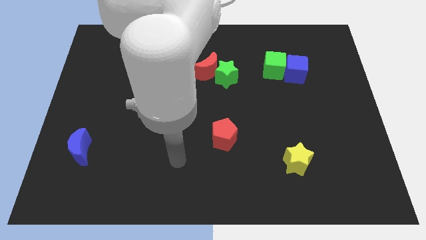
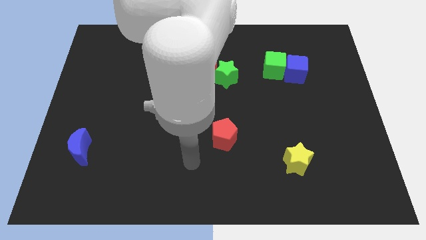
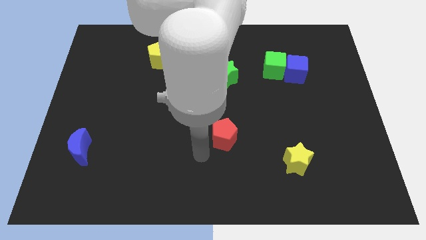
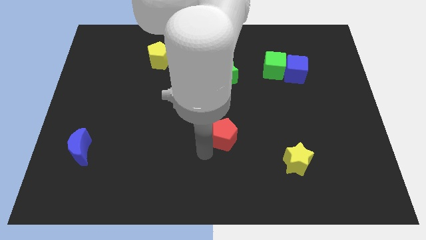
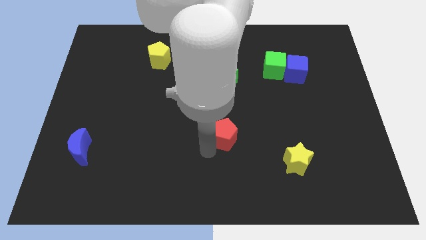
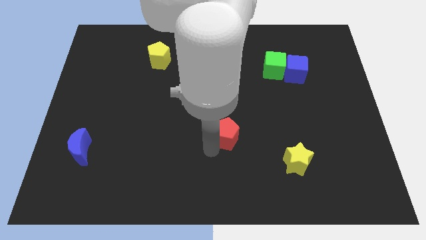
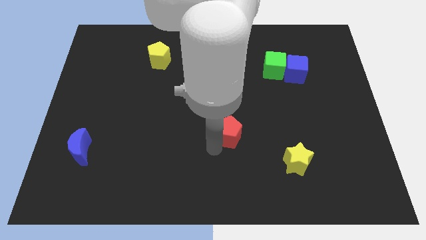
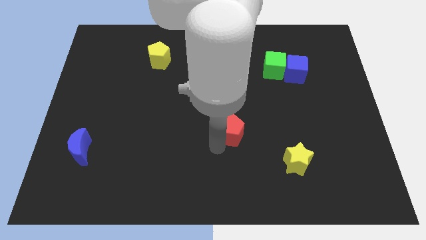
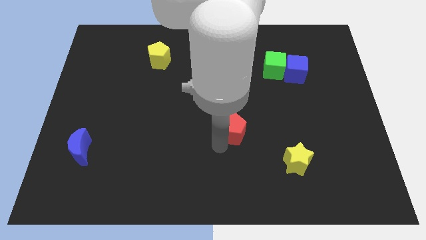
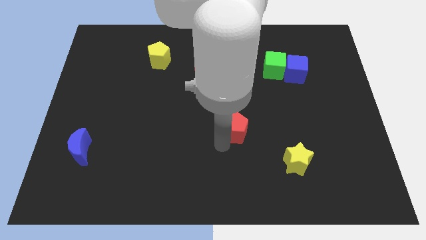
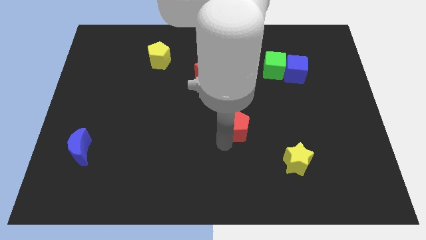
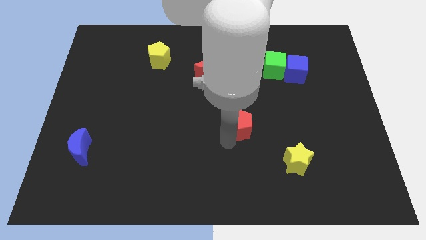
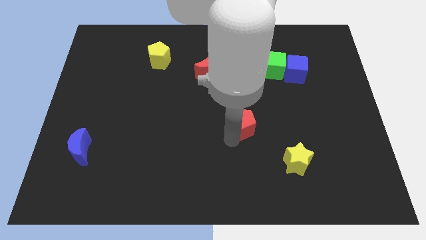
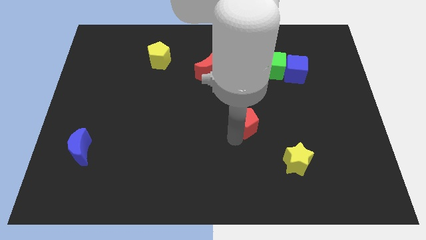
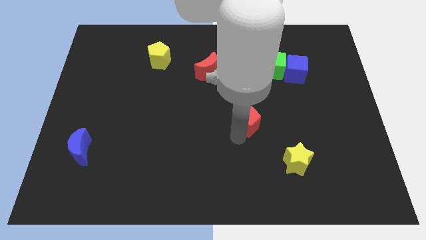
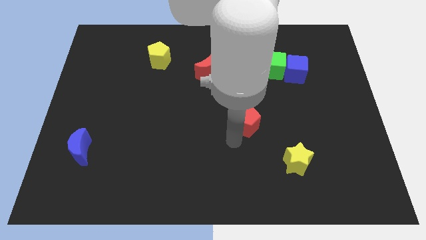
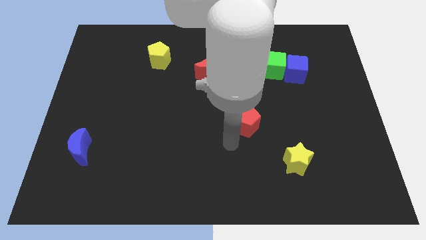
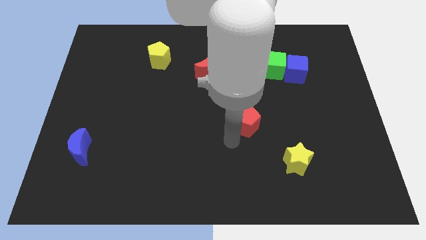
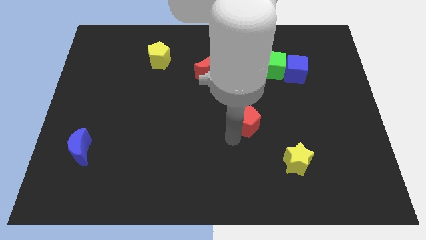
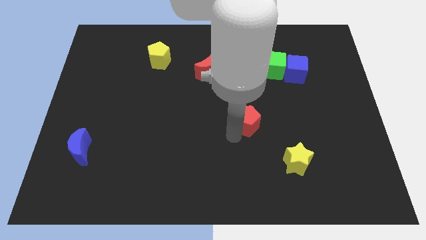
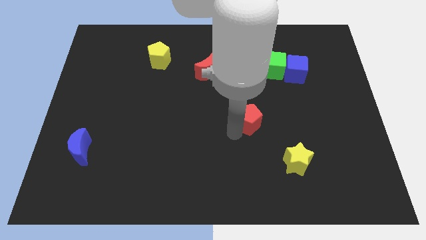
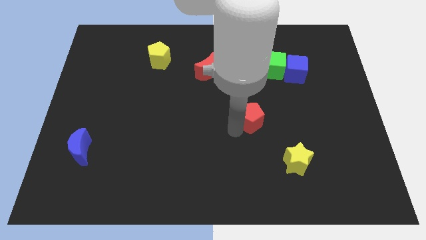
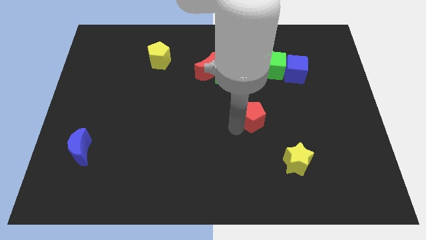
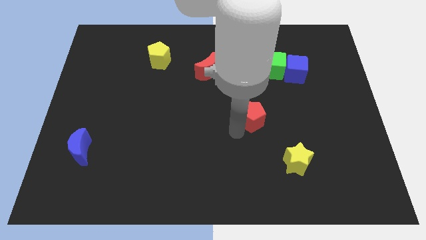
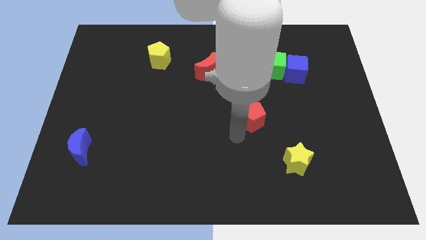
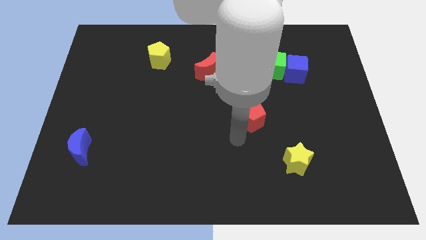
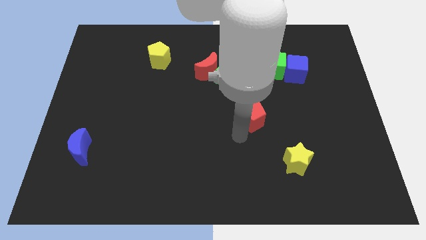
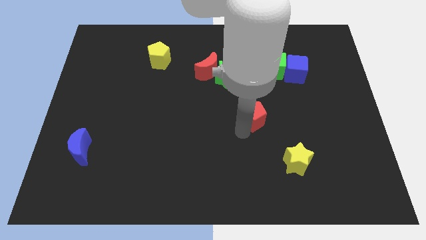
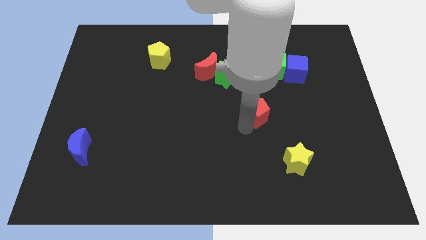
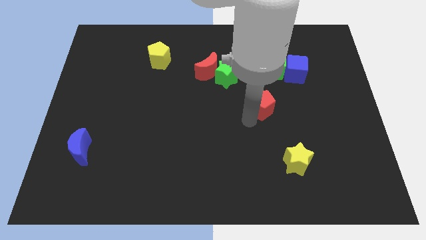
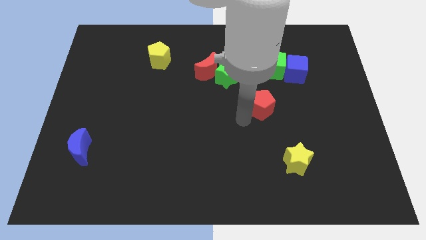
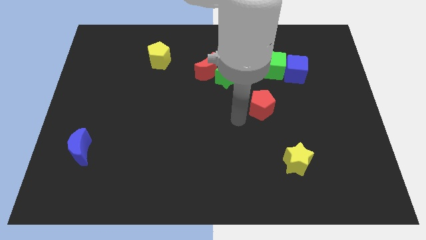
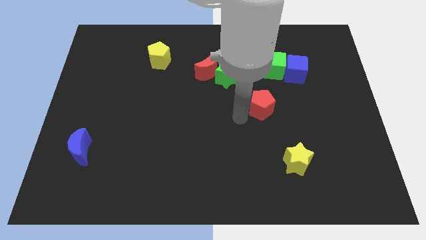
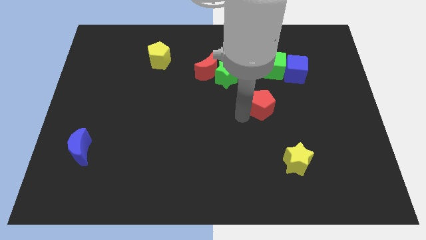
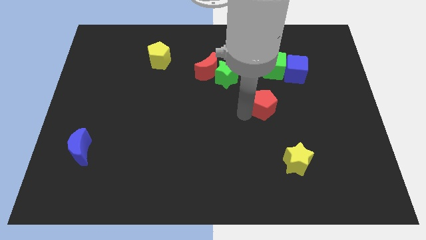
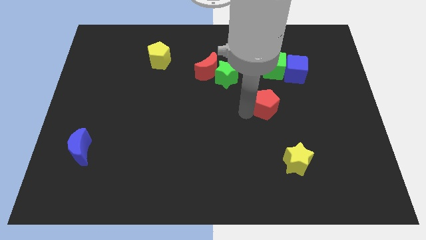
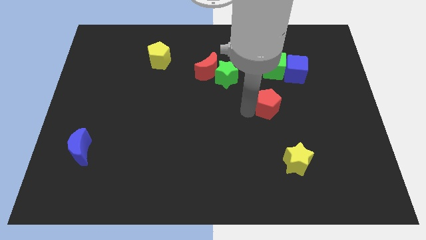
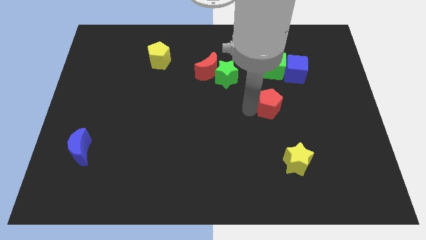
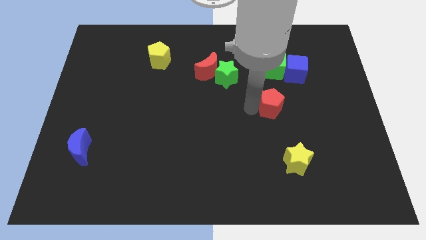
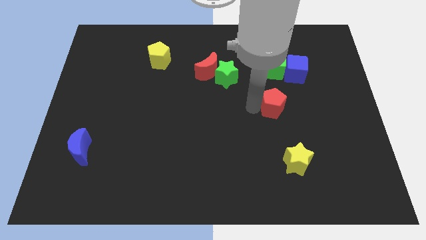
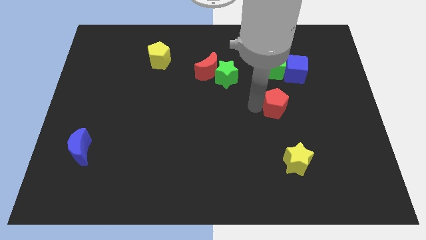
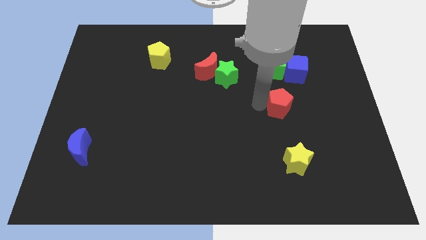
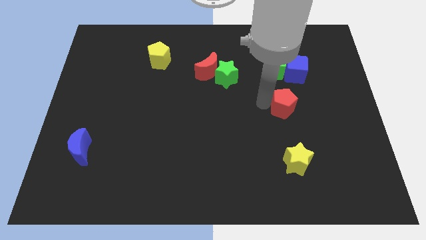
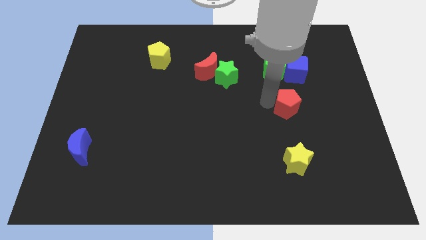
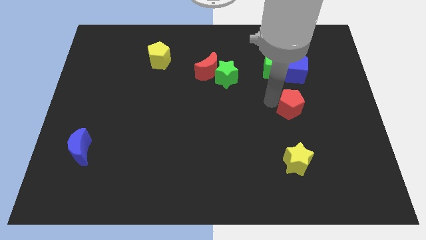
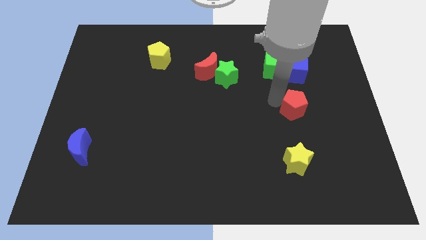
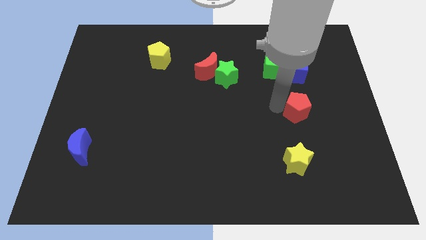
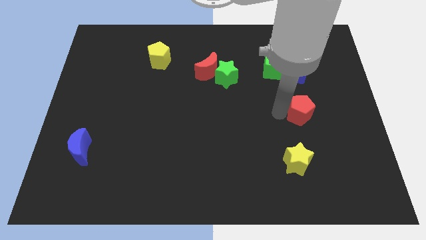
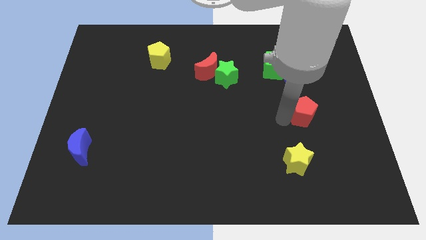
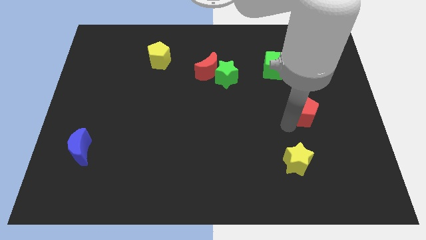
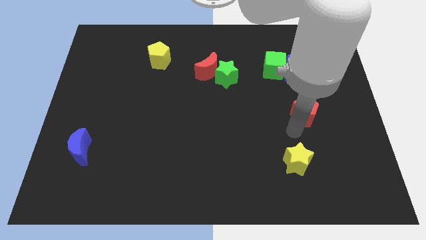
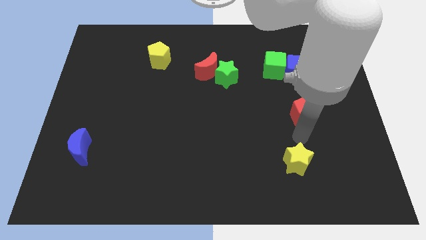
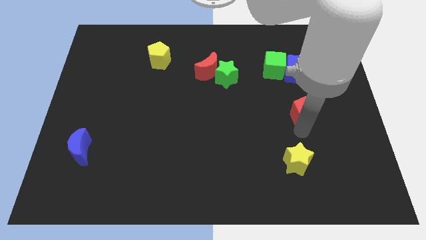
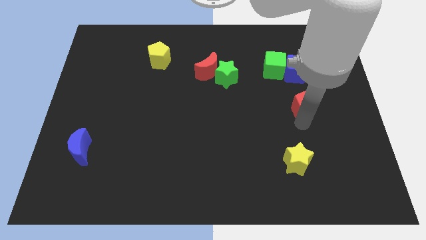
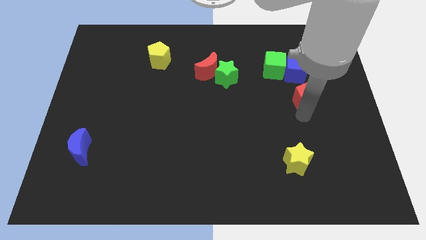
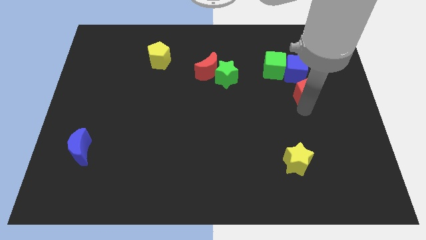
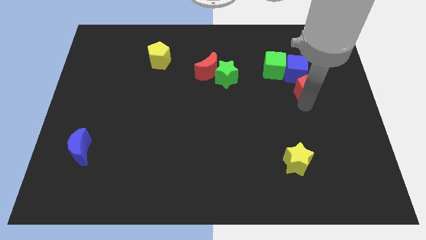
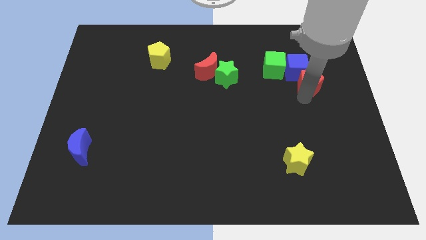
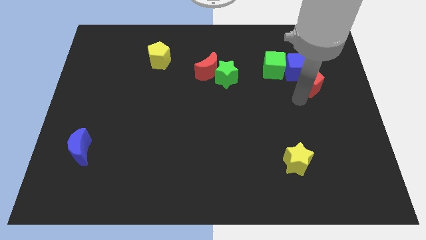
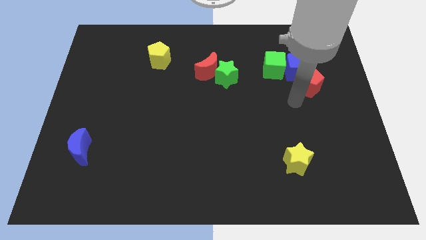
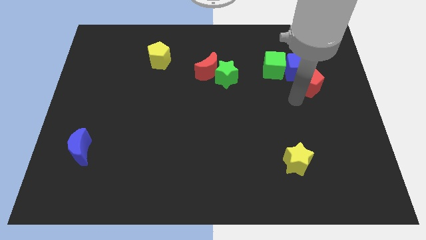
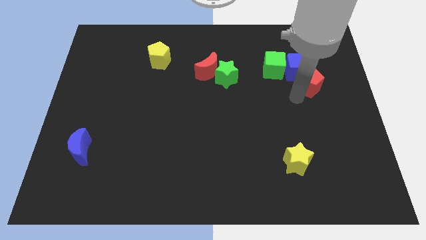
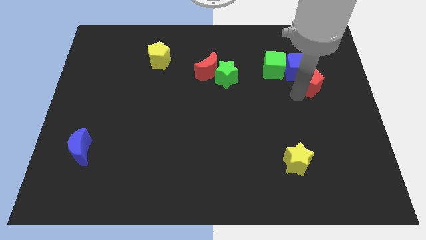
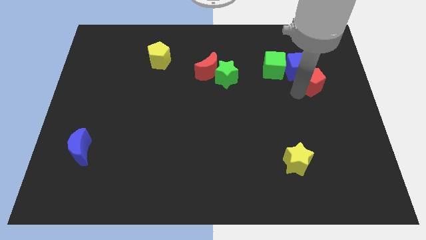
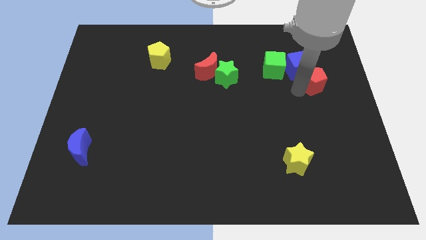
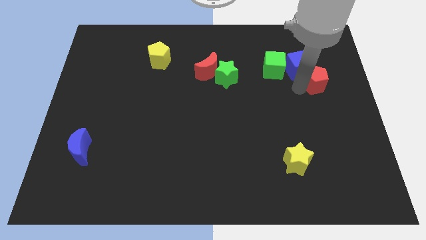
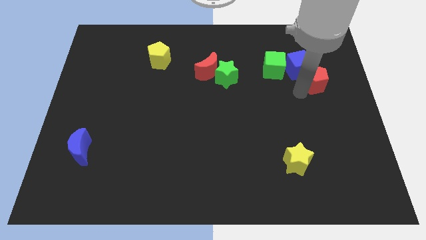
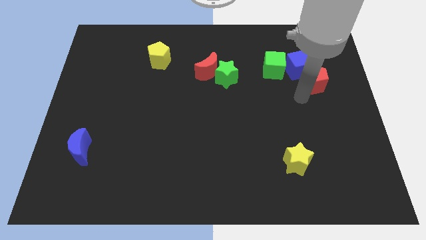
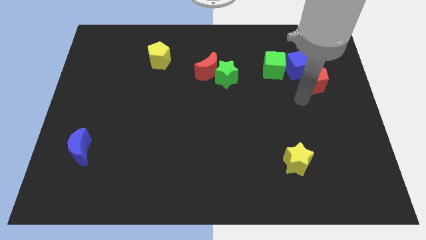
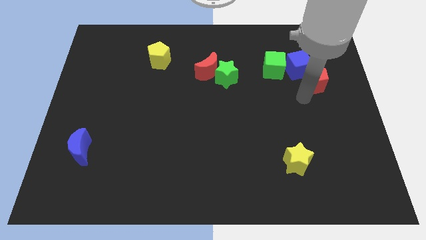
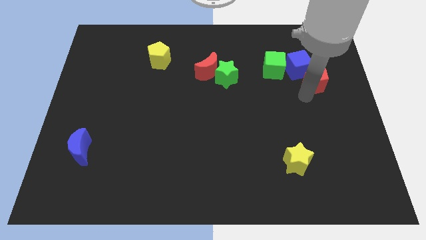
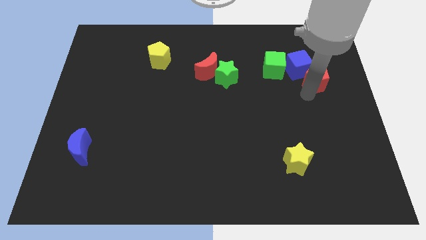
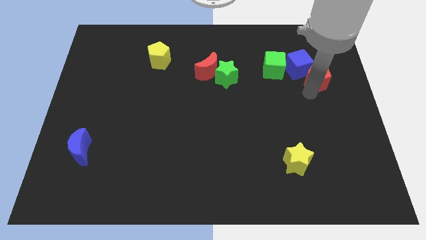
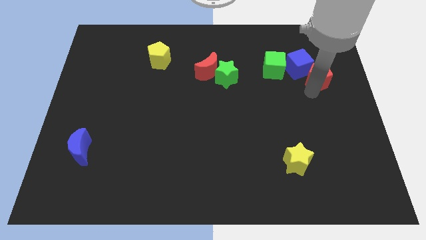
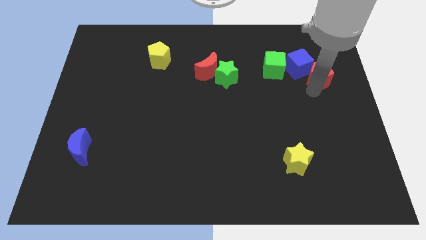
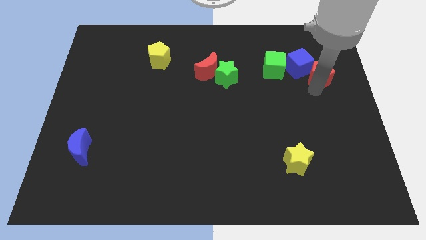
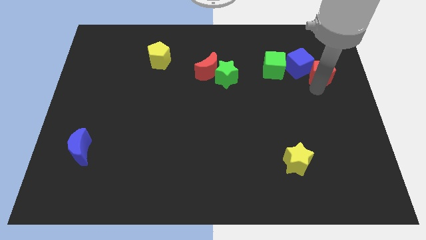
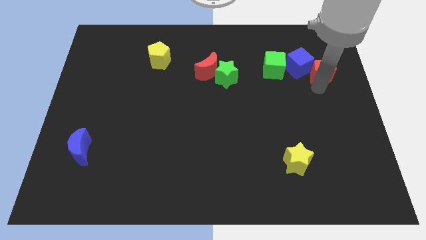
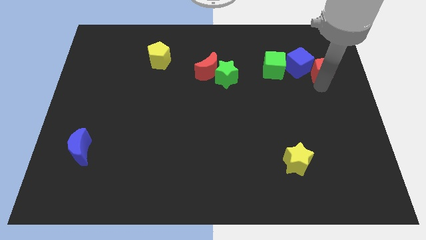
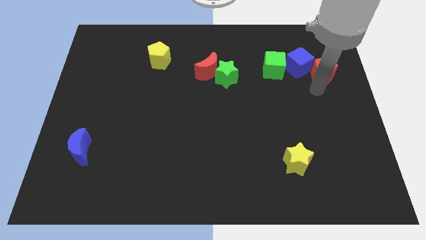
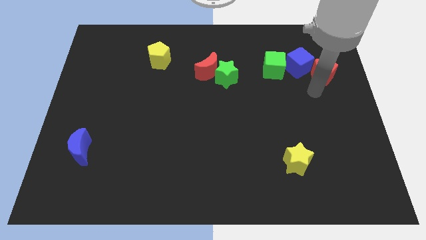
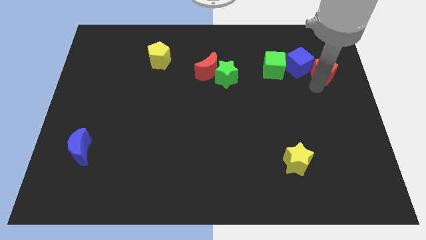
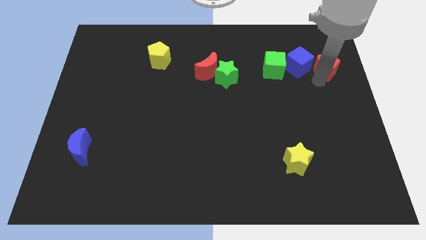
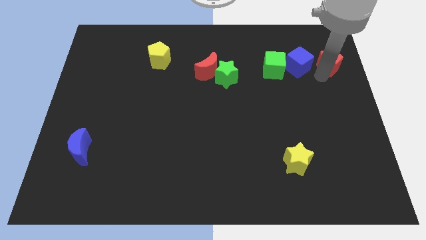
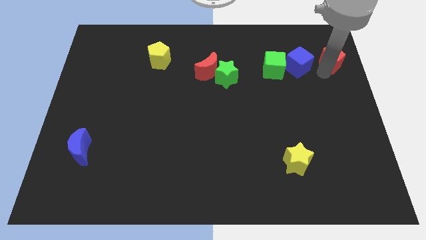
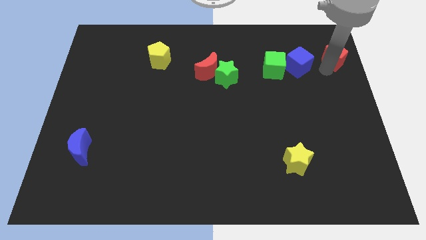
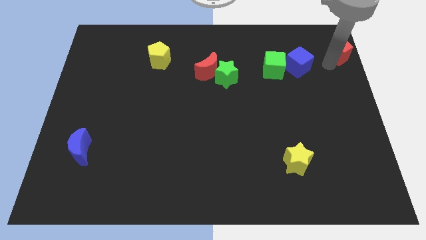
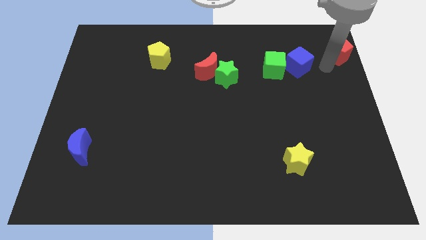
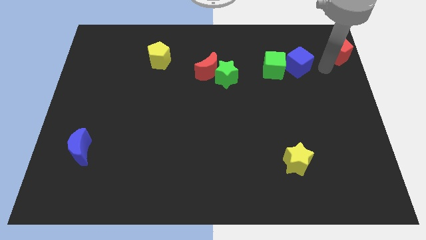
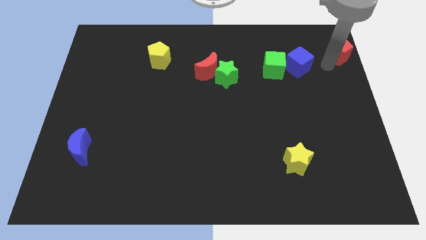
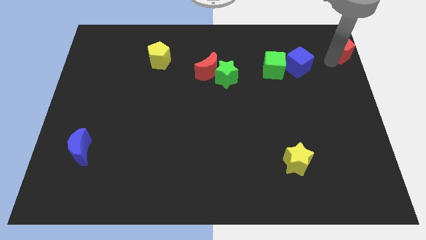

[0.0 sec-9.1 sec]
push the red pentagon to the upper right corner
